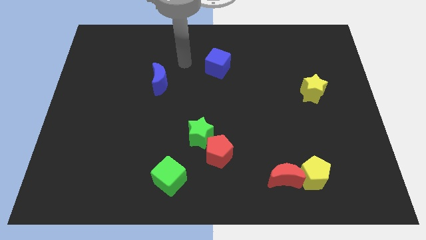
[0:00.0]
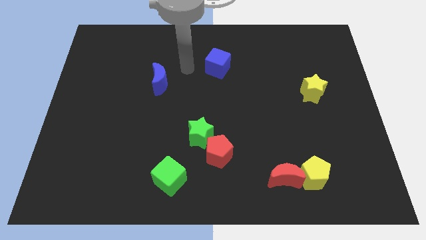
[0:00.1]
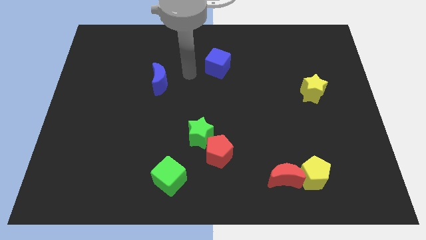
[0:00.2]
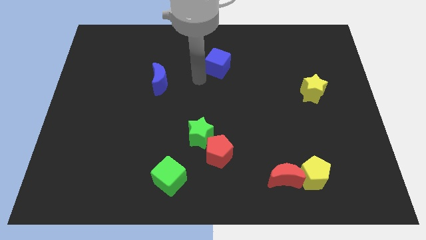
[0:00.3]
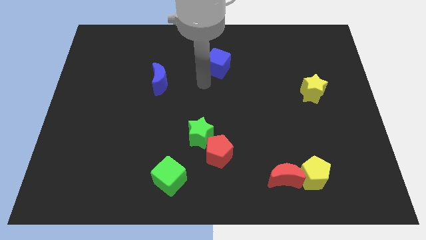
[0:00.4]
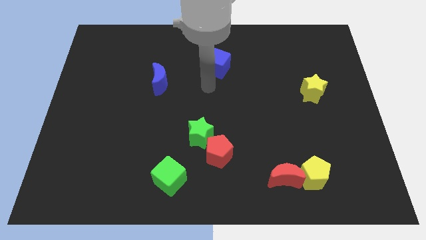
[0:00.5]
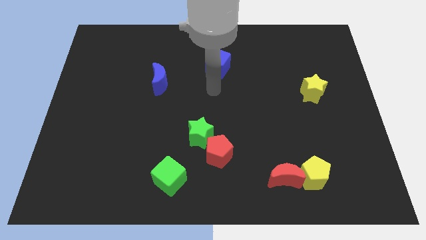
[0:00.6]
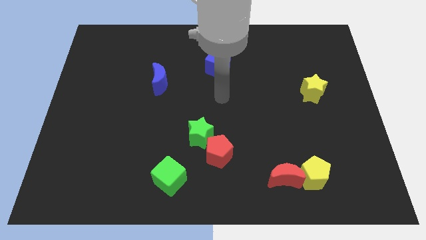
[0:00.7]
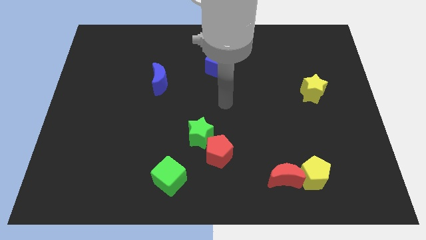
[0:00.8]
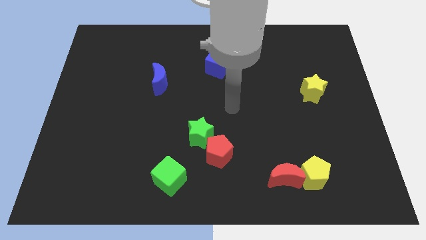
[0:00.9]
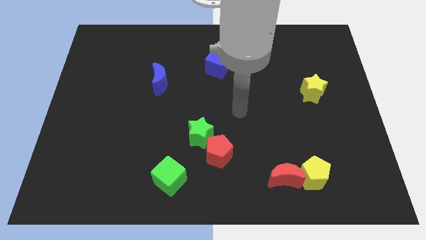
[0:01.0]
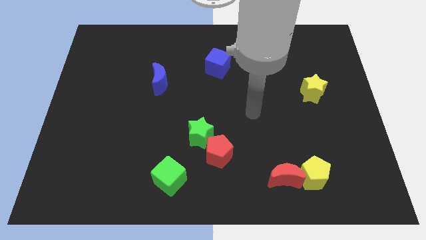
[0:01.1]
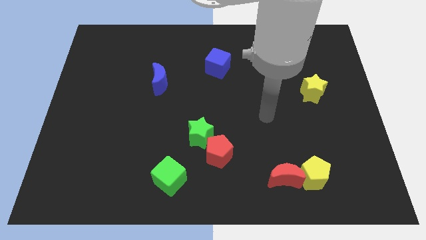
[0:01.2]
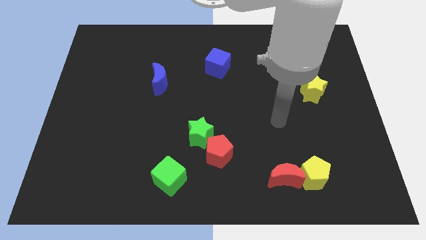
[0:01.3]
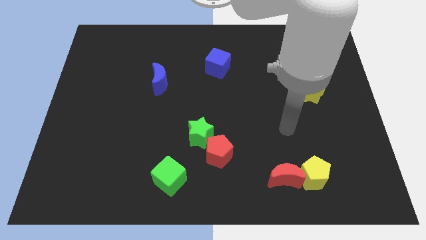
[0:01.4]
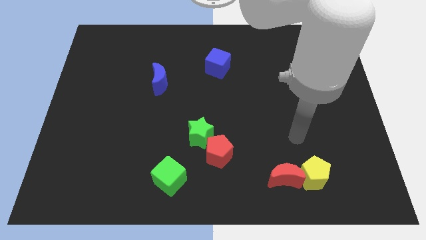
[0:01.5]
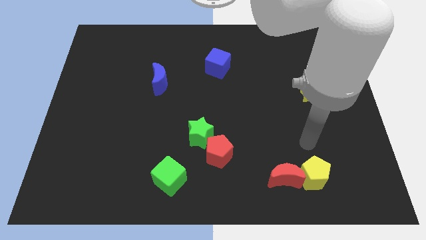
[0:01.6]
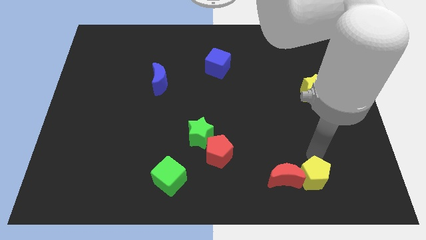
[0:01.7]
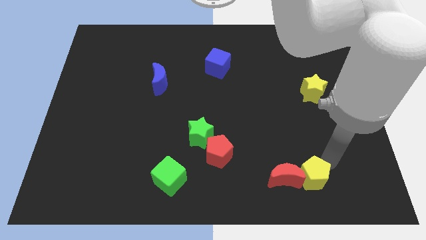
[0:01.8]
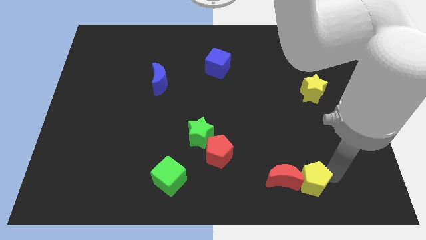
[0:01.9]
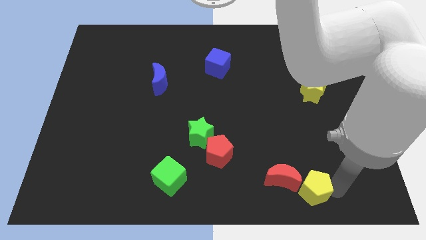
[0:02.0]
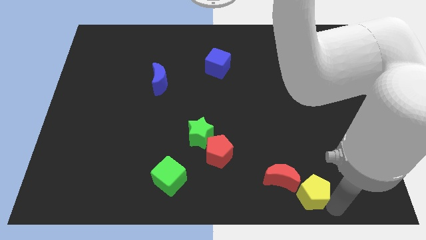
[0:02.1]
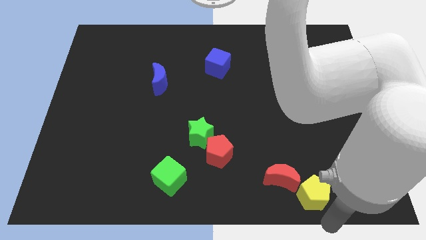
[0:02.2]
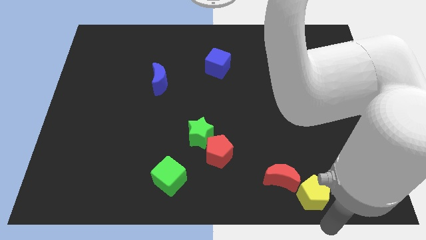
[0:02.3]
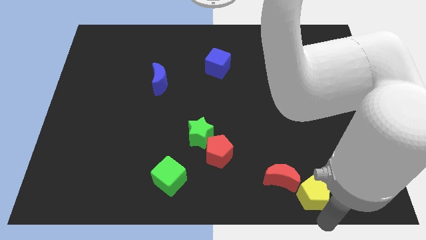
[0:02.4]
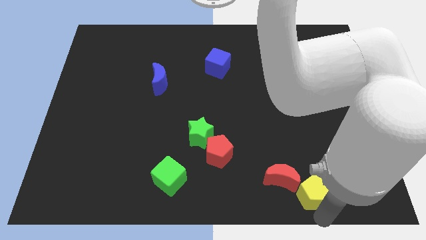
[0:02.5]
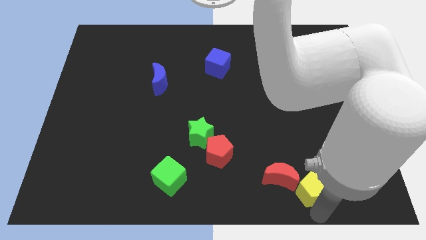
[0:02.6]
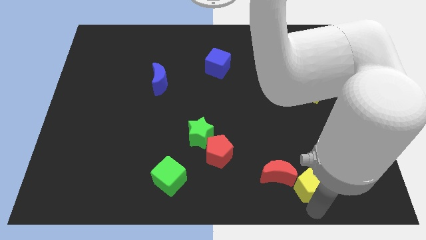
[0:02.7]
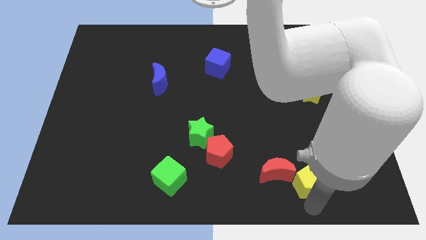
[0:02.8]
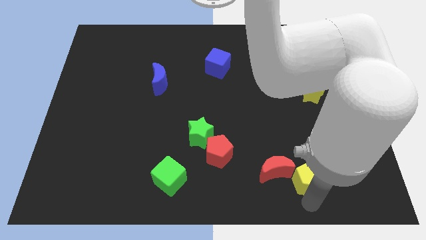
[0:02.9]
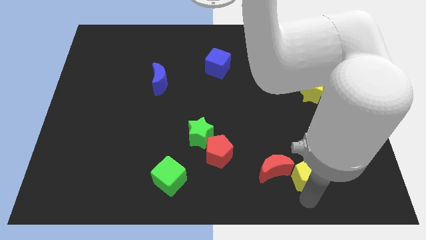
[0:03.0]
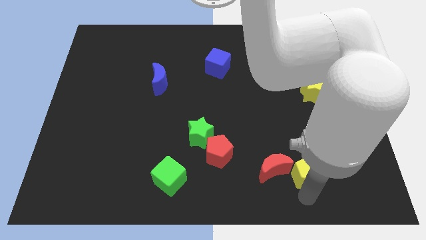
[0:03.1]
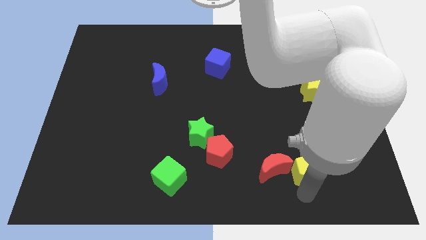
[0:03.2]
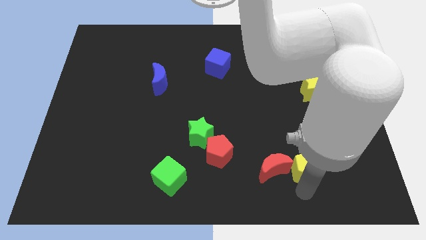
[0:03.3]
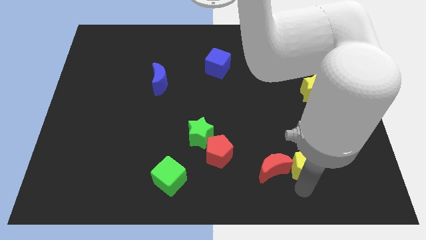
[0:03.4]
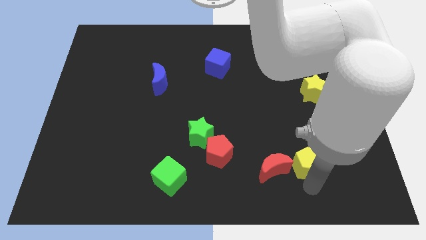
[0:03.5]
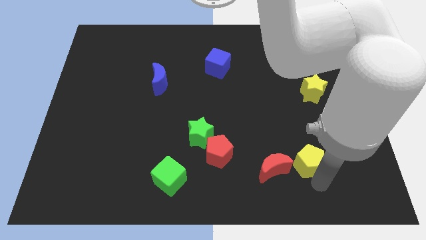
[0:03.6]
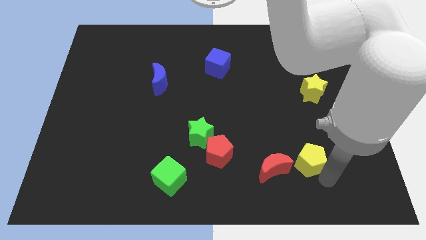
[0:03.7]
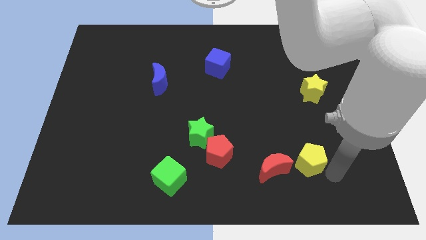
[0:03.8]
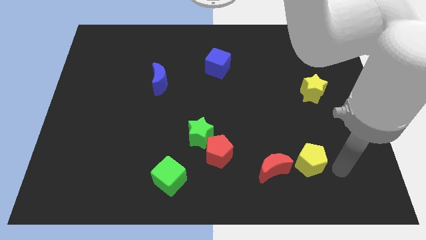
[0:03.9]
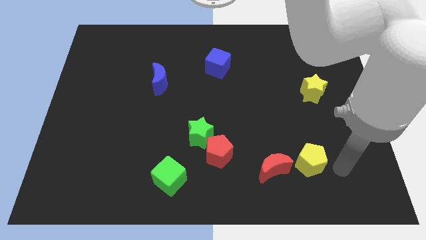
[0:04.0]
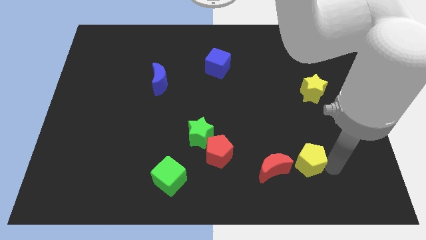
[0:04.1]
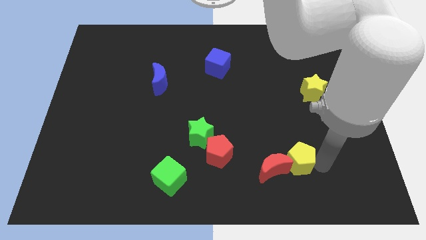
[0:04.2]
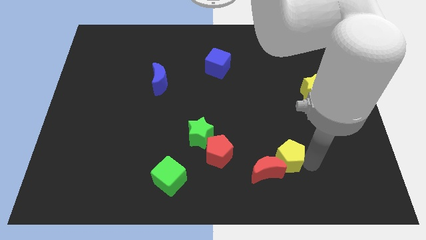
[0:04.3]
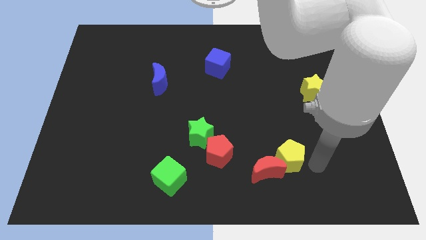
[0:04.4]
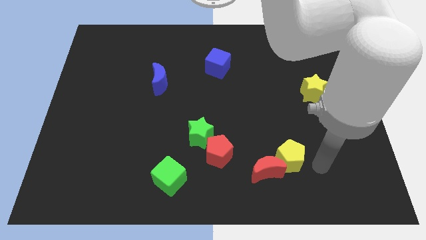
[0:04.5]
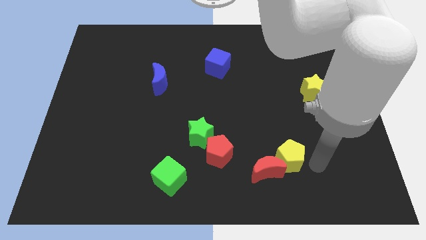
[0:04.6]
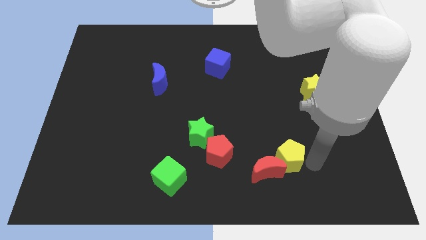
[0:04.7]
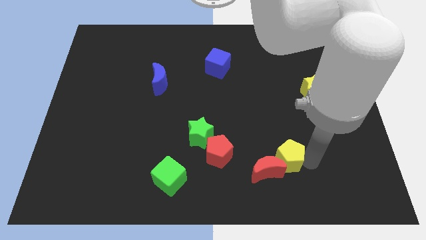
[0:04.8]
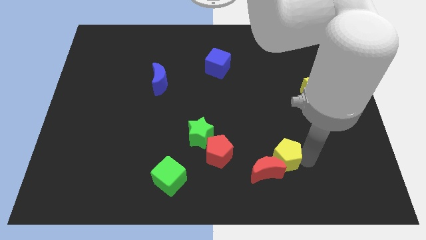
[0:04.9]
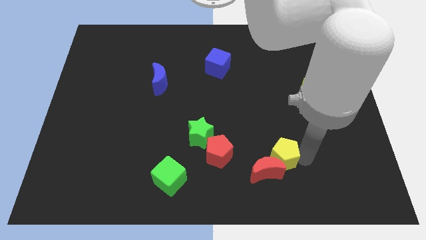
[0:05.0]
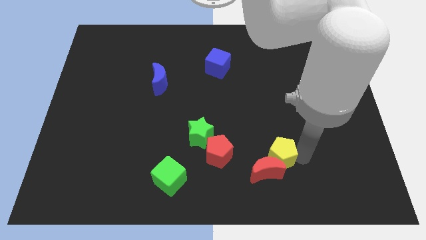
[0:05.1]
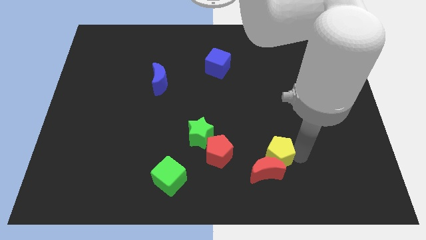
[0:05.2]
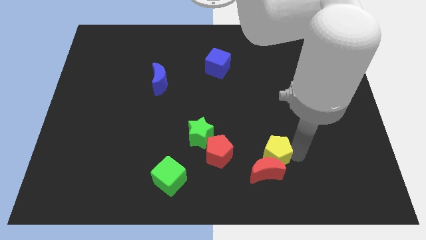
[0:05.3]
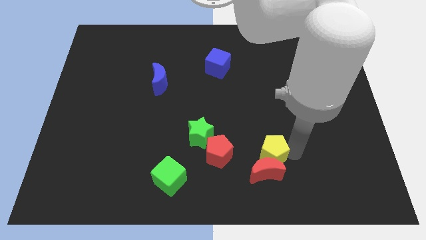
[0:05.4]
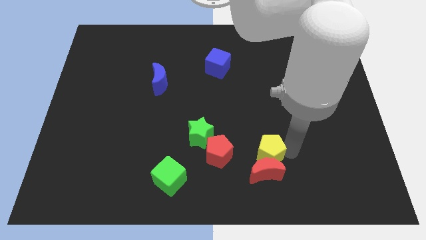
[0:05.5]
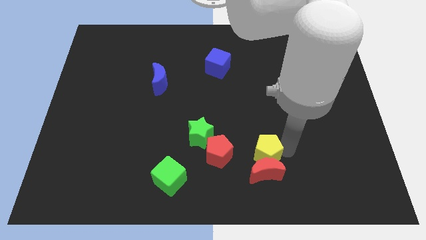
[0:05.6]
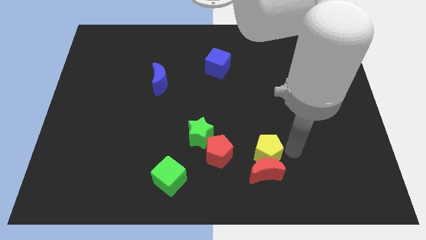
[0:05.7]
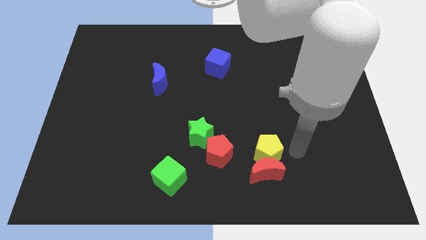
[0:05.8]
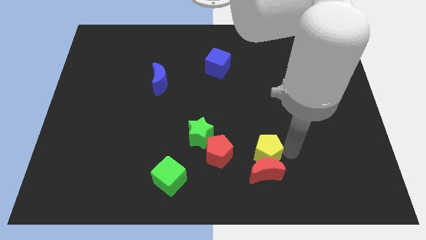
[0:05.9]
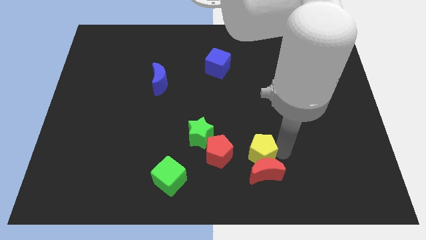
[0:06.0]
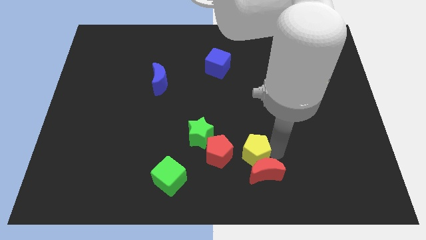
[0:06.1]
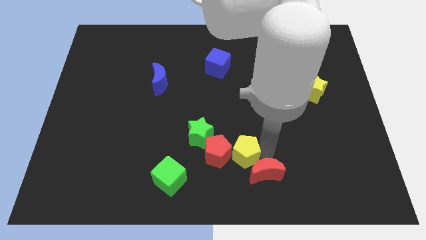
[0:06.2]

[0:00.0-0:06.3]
put the yellow pentagon close to the red pentagon

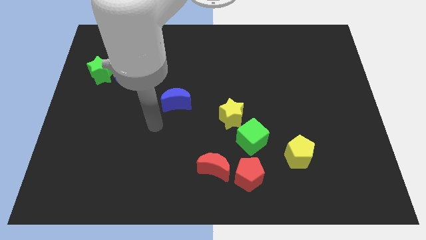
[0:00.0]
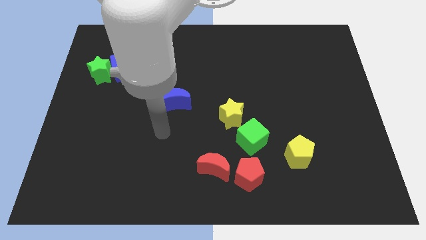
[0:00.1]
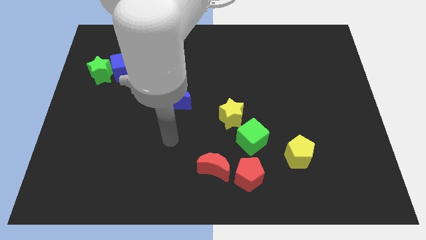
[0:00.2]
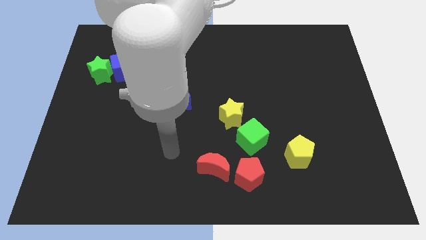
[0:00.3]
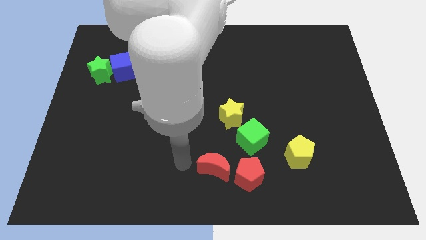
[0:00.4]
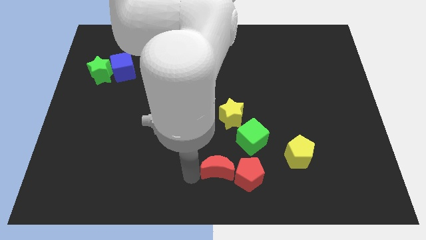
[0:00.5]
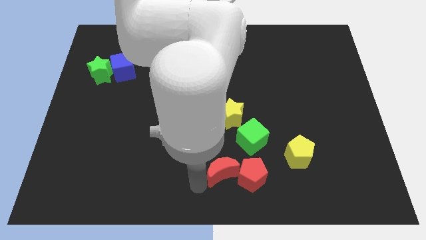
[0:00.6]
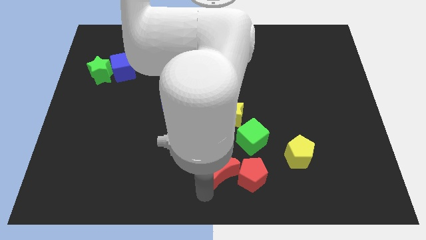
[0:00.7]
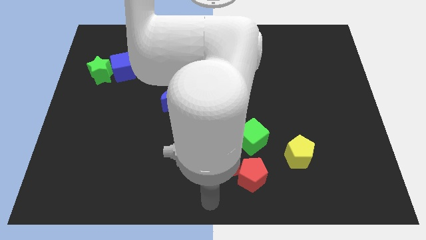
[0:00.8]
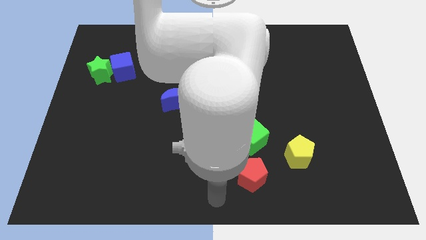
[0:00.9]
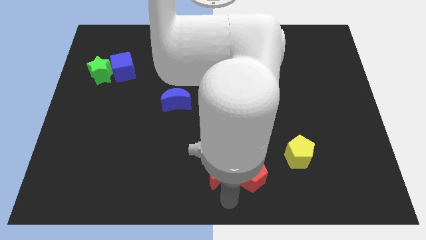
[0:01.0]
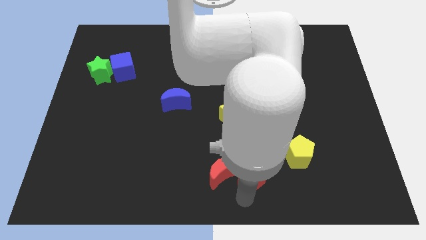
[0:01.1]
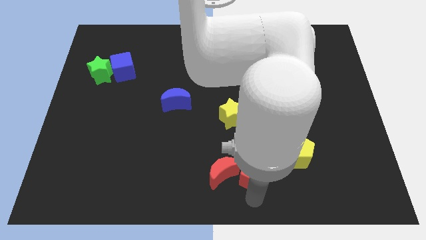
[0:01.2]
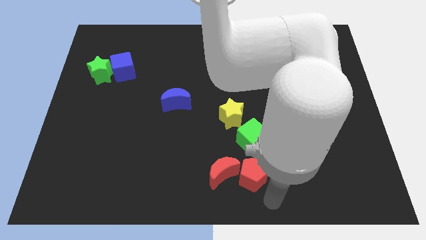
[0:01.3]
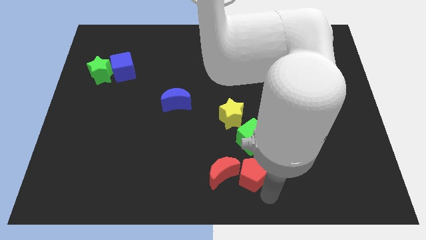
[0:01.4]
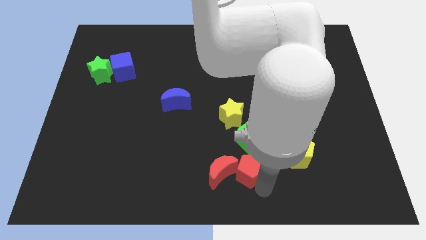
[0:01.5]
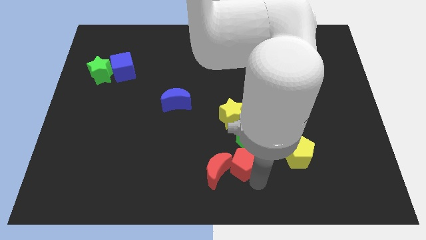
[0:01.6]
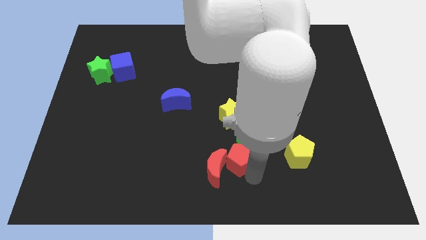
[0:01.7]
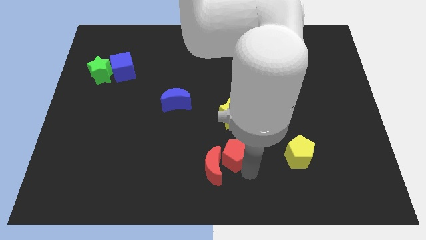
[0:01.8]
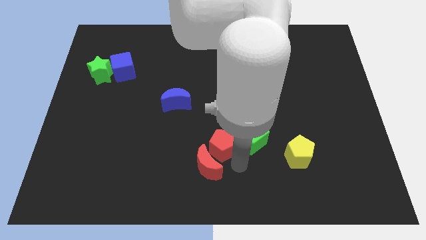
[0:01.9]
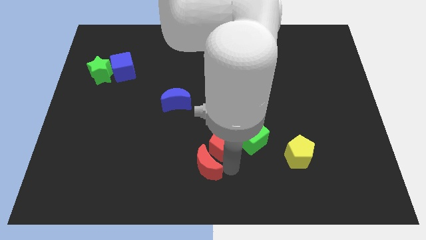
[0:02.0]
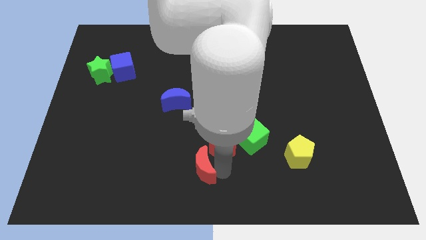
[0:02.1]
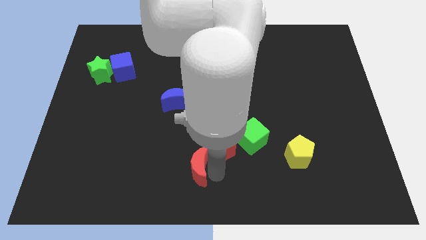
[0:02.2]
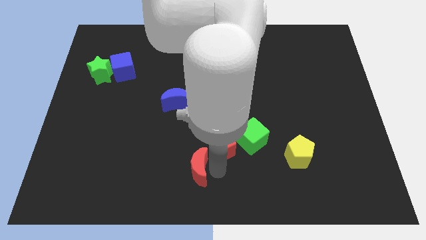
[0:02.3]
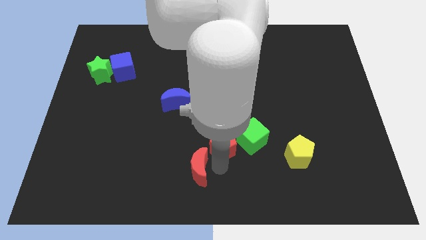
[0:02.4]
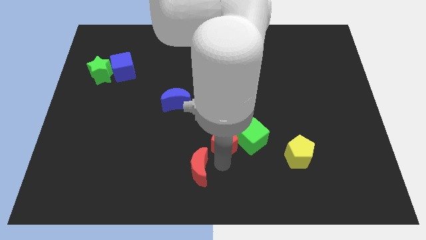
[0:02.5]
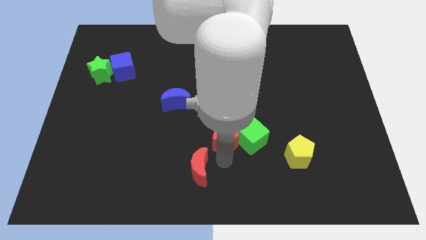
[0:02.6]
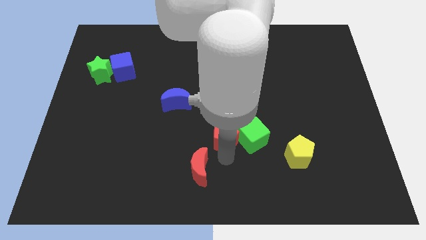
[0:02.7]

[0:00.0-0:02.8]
slide the red pentagon close to the yellow star
